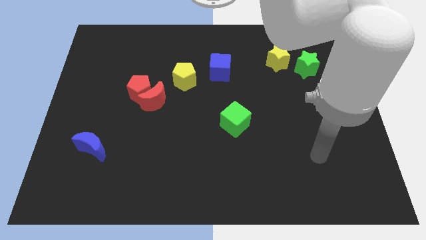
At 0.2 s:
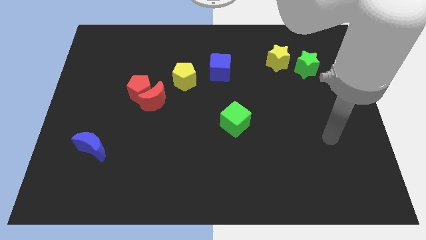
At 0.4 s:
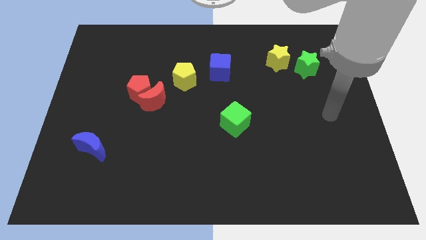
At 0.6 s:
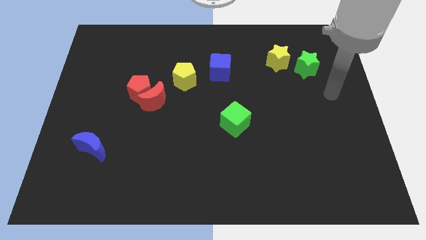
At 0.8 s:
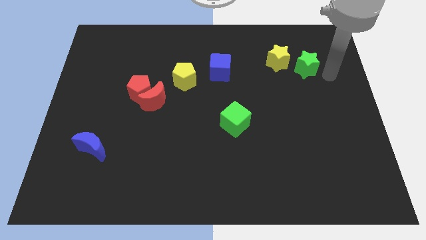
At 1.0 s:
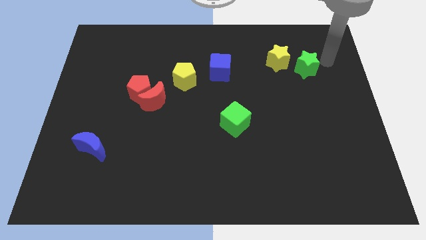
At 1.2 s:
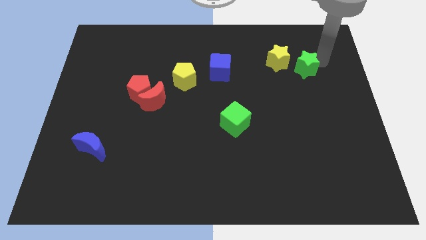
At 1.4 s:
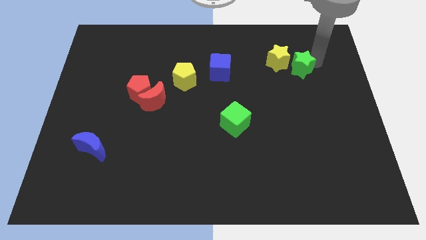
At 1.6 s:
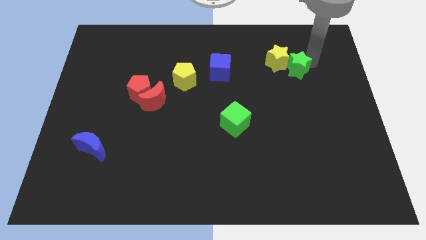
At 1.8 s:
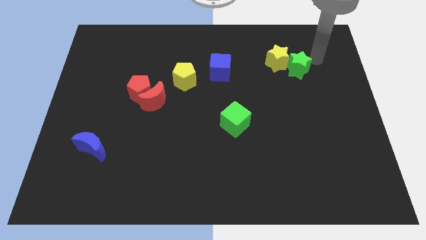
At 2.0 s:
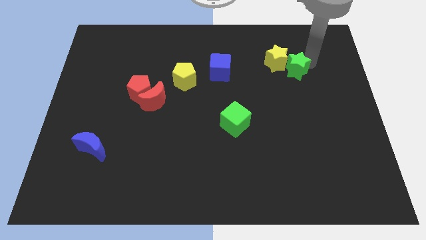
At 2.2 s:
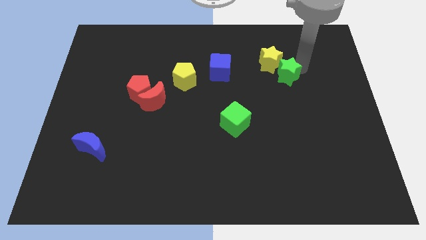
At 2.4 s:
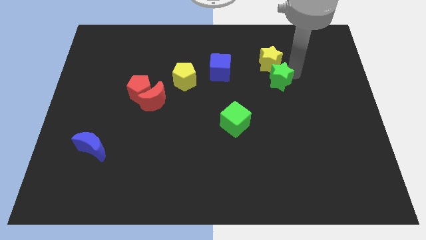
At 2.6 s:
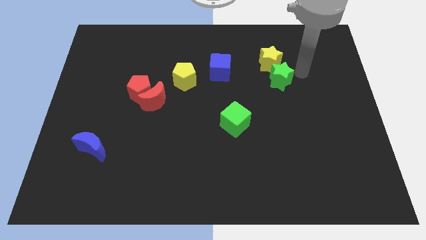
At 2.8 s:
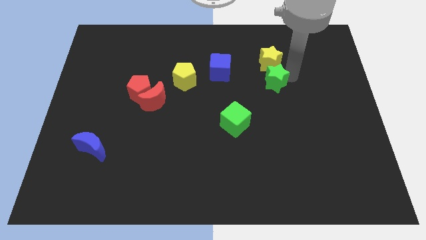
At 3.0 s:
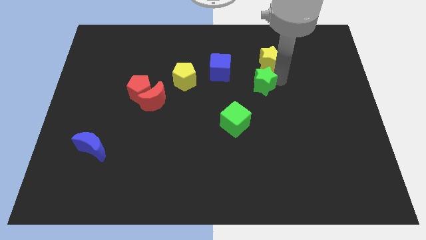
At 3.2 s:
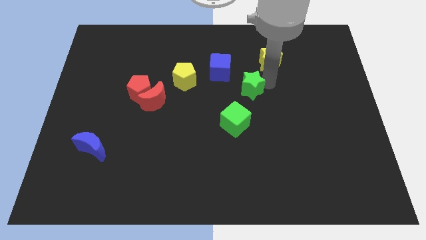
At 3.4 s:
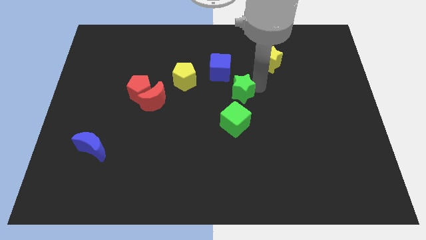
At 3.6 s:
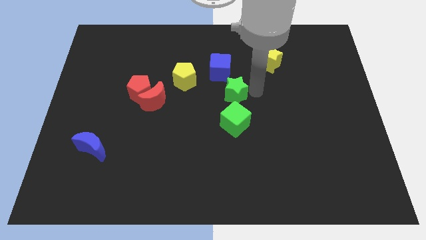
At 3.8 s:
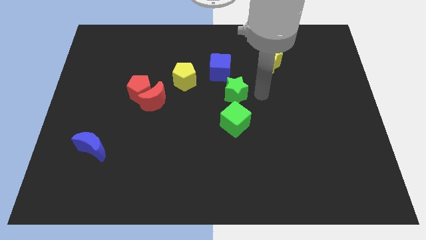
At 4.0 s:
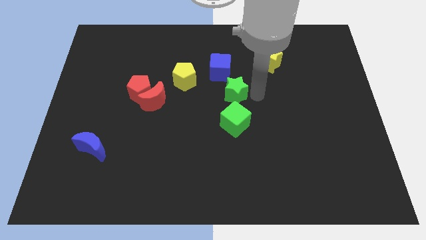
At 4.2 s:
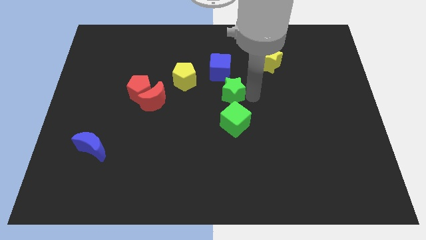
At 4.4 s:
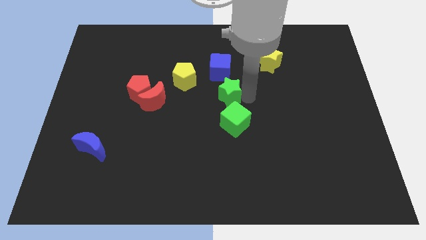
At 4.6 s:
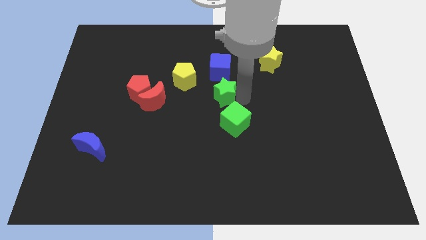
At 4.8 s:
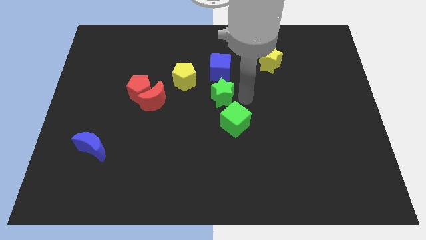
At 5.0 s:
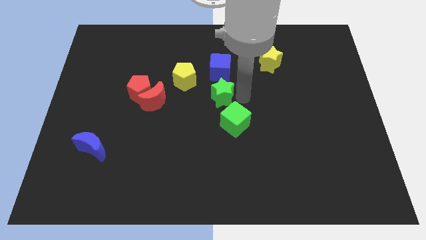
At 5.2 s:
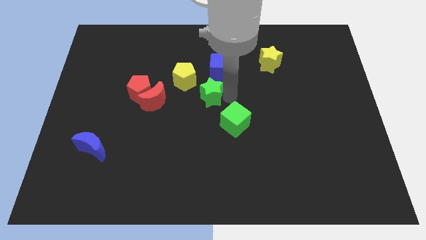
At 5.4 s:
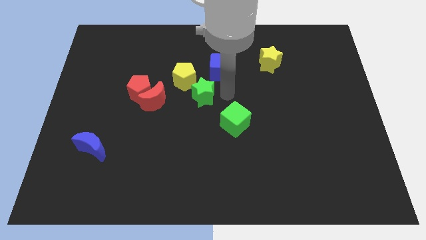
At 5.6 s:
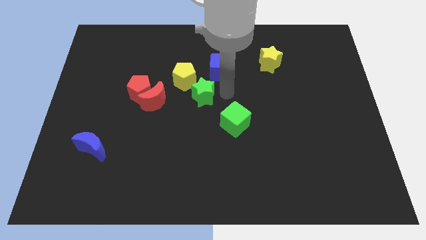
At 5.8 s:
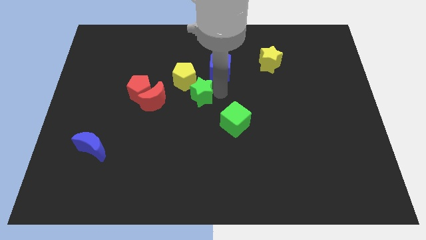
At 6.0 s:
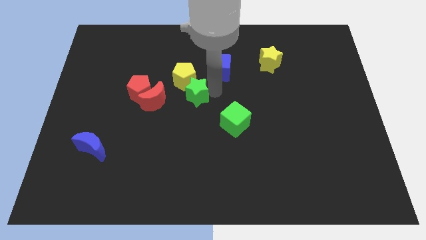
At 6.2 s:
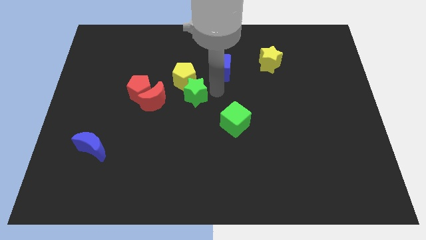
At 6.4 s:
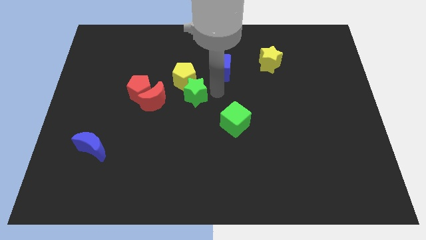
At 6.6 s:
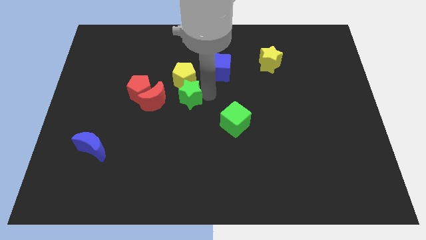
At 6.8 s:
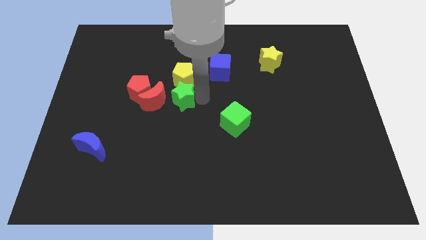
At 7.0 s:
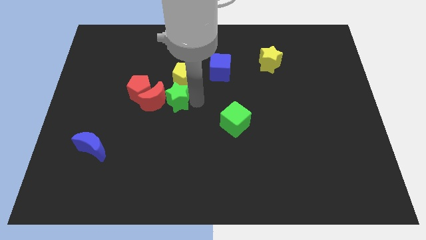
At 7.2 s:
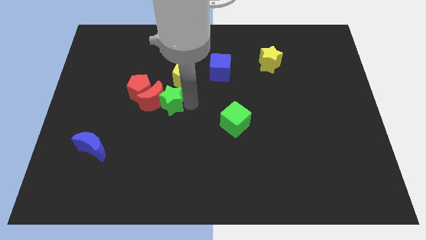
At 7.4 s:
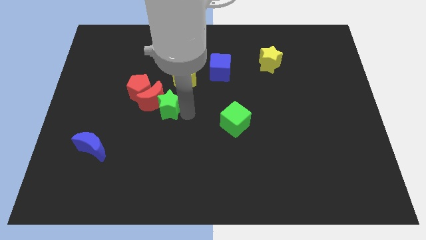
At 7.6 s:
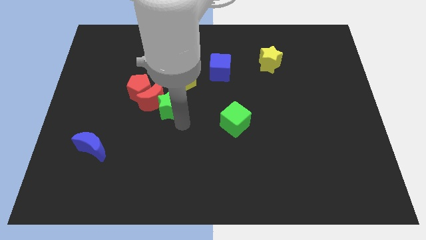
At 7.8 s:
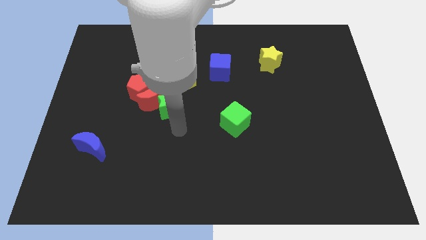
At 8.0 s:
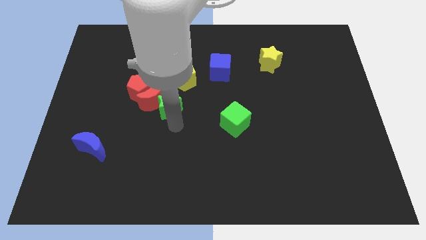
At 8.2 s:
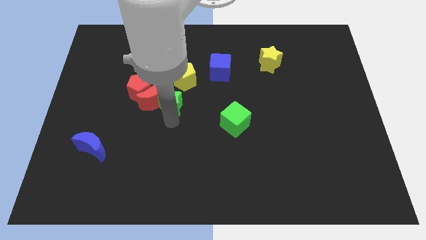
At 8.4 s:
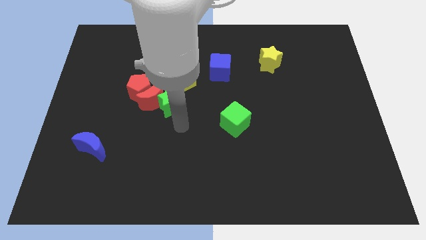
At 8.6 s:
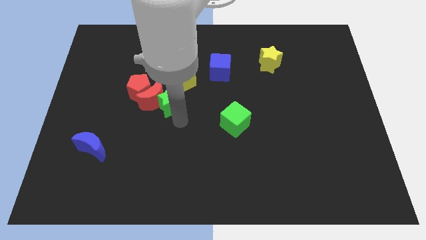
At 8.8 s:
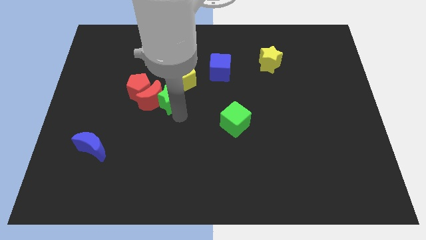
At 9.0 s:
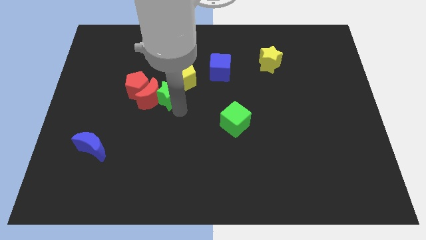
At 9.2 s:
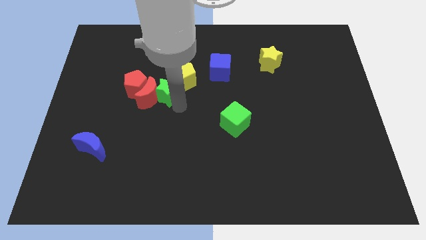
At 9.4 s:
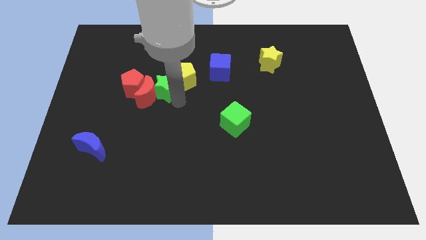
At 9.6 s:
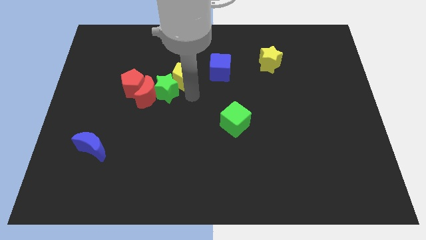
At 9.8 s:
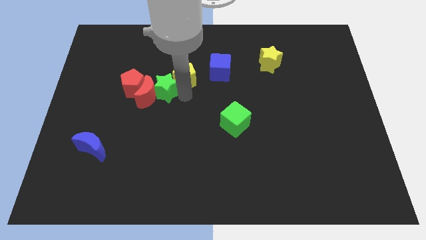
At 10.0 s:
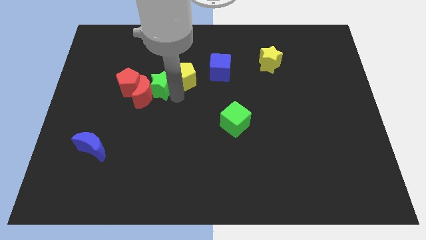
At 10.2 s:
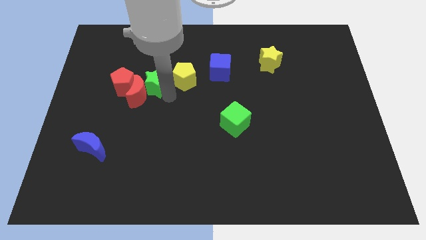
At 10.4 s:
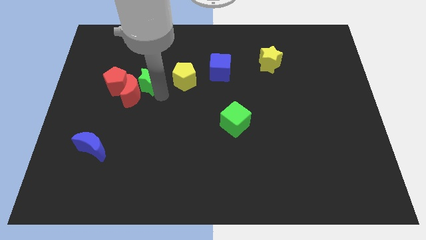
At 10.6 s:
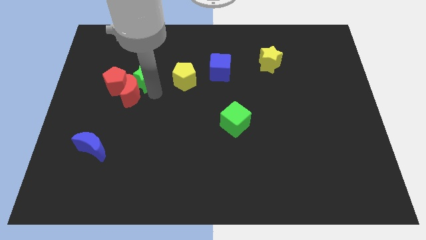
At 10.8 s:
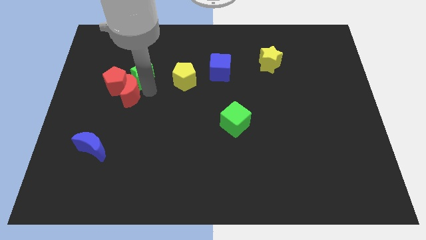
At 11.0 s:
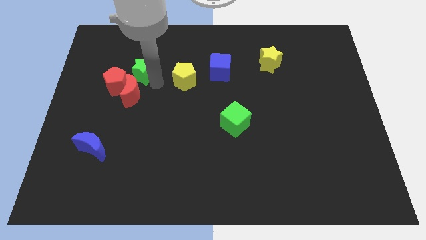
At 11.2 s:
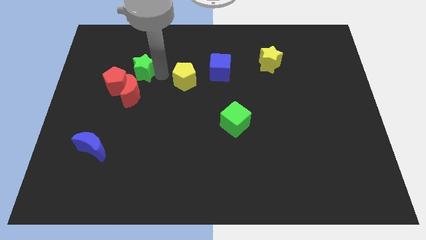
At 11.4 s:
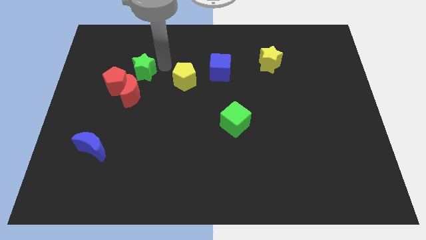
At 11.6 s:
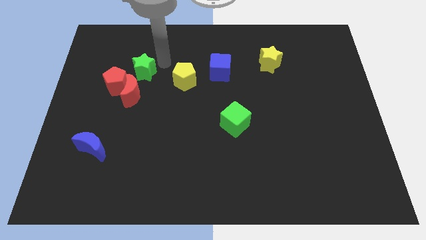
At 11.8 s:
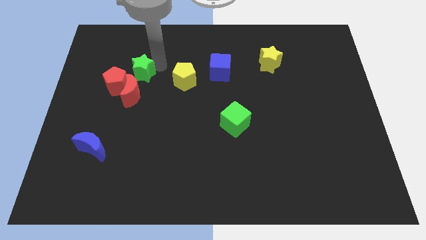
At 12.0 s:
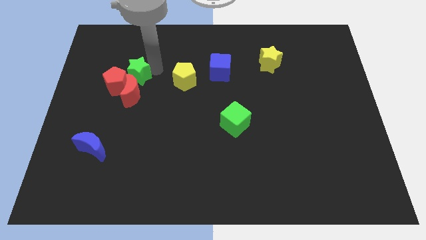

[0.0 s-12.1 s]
move the green star next to the red pentagon

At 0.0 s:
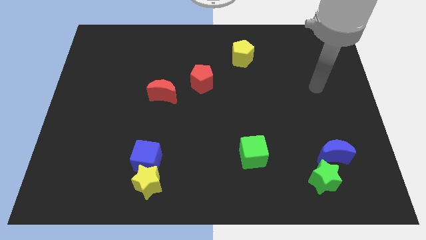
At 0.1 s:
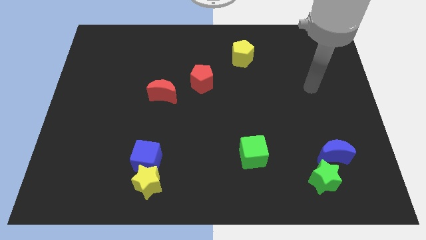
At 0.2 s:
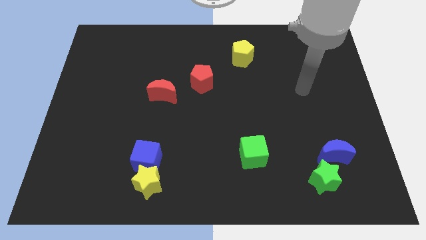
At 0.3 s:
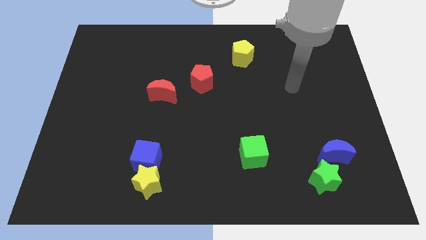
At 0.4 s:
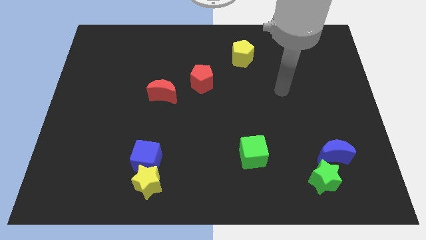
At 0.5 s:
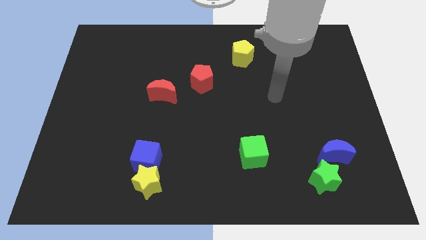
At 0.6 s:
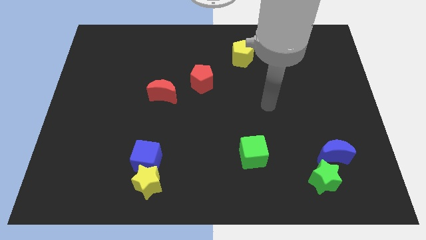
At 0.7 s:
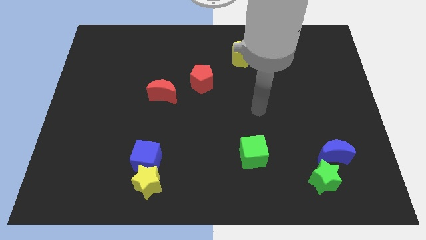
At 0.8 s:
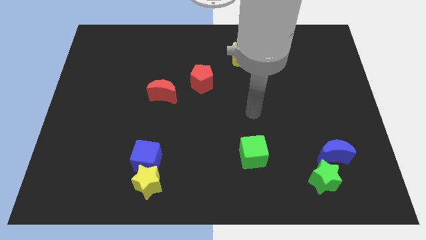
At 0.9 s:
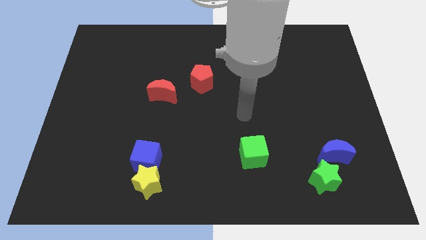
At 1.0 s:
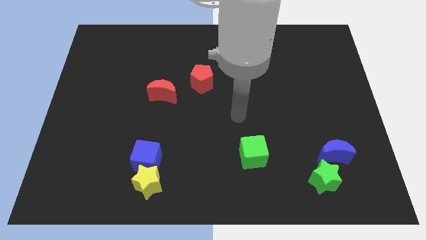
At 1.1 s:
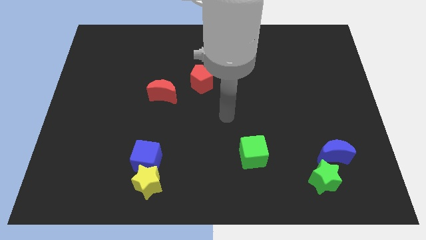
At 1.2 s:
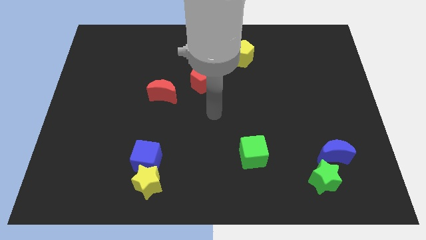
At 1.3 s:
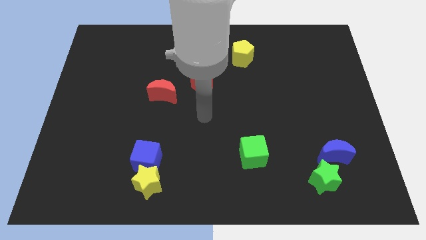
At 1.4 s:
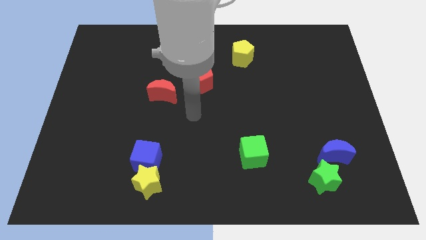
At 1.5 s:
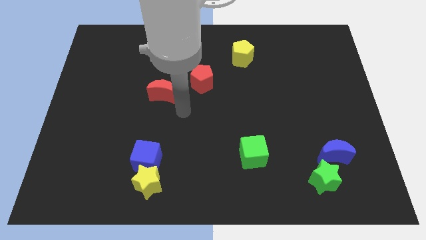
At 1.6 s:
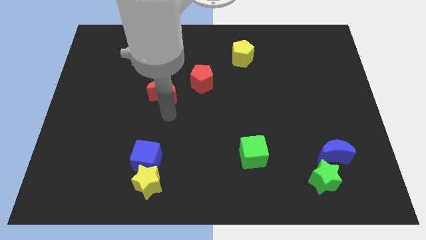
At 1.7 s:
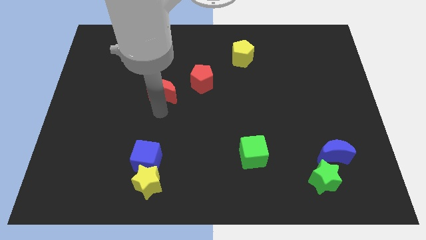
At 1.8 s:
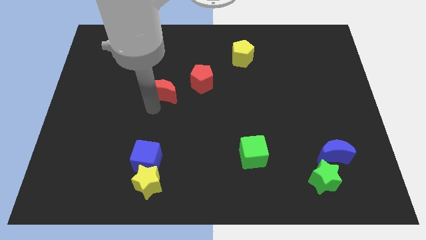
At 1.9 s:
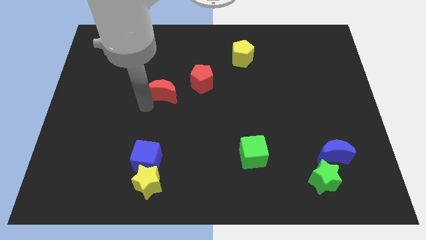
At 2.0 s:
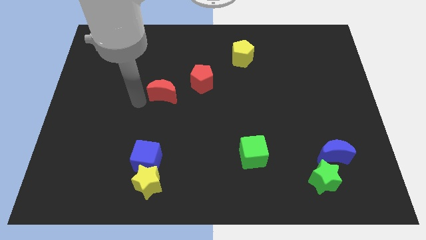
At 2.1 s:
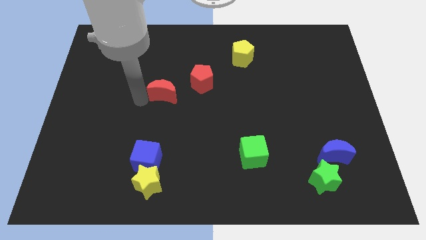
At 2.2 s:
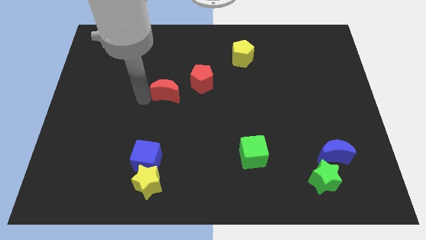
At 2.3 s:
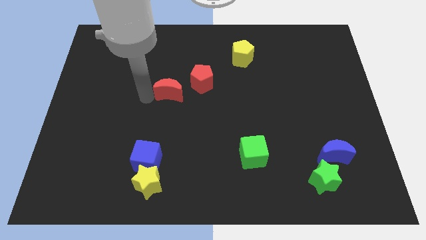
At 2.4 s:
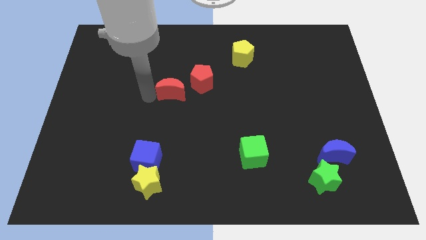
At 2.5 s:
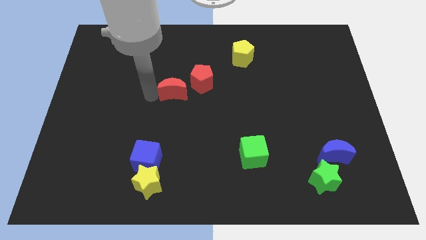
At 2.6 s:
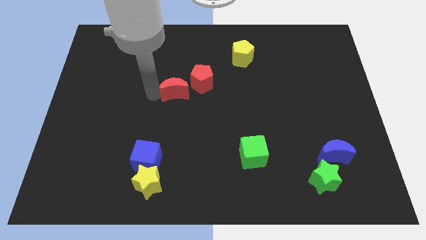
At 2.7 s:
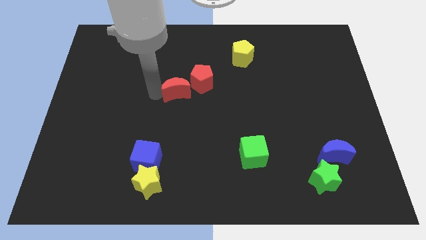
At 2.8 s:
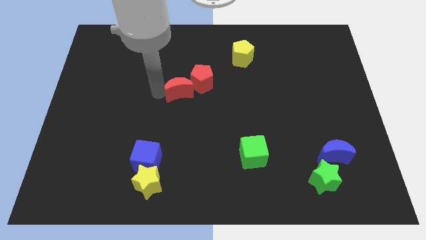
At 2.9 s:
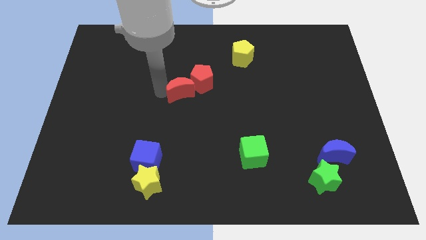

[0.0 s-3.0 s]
slide the red moon towards the red pentagon
